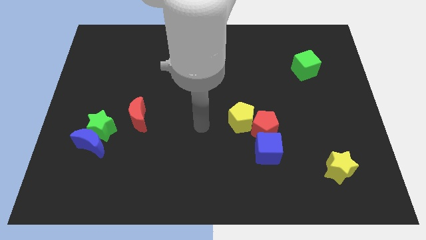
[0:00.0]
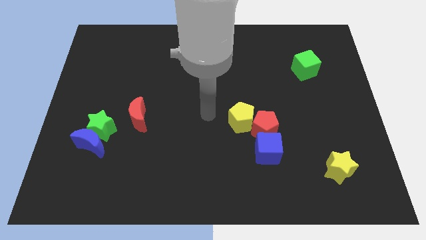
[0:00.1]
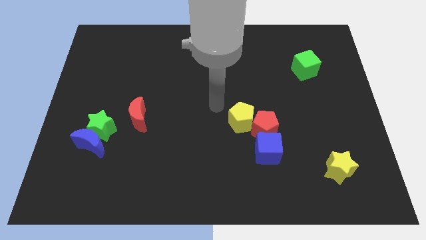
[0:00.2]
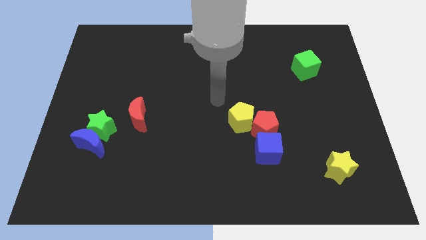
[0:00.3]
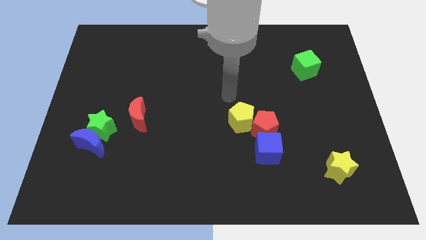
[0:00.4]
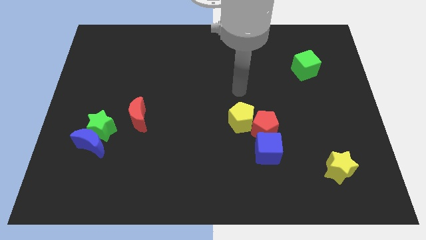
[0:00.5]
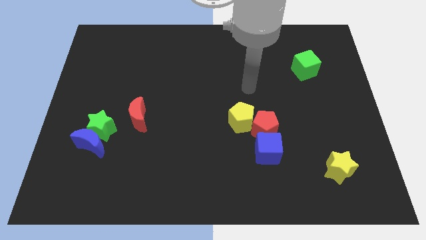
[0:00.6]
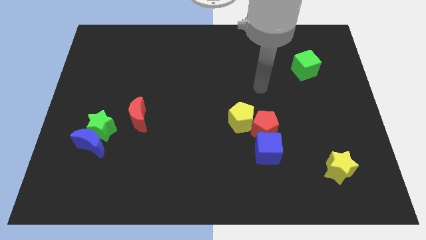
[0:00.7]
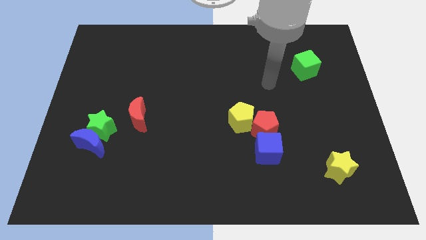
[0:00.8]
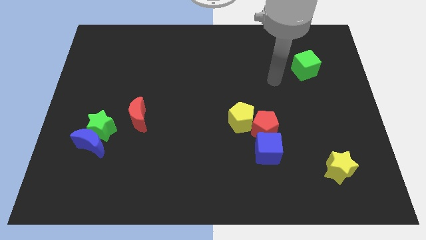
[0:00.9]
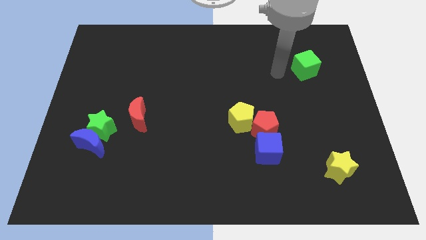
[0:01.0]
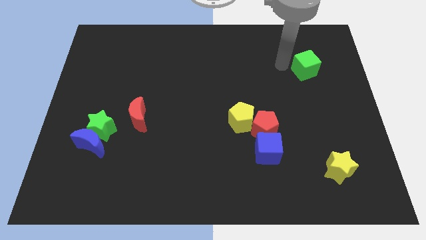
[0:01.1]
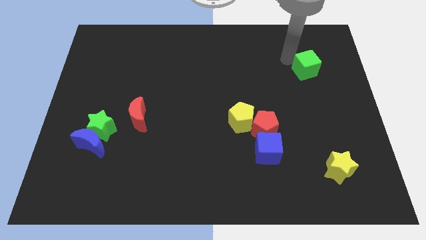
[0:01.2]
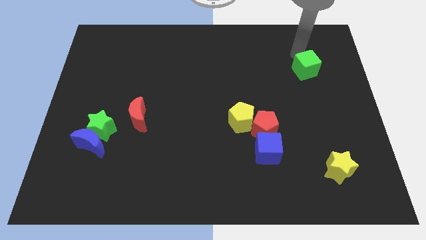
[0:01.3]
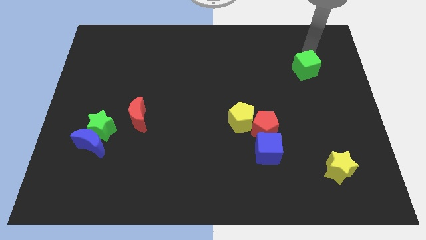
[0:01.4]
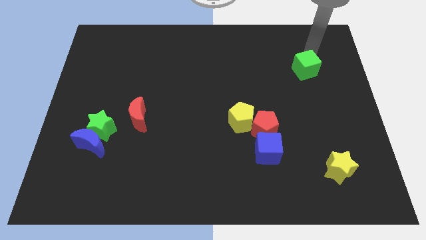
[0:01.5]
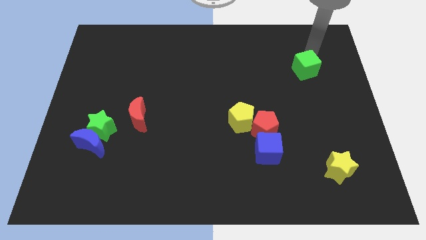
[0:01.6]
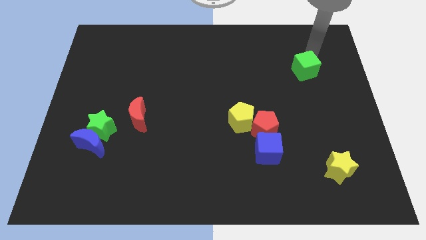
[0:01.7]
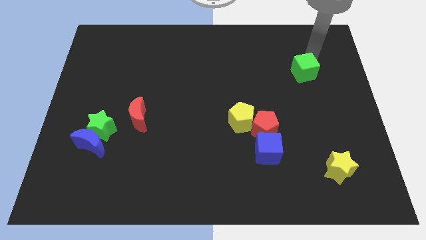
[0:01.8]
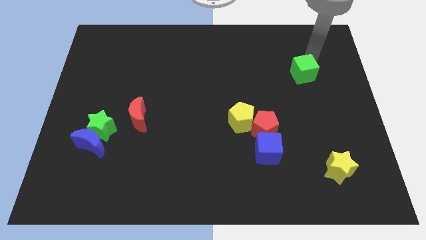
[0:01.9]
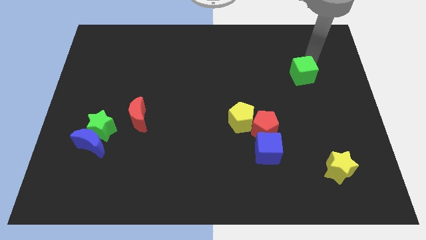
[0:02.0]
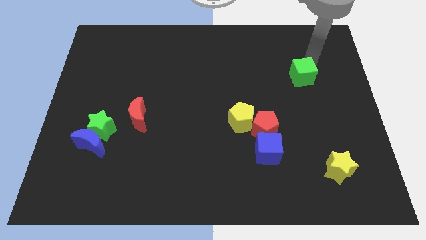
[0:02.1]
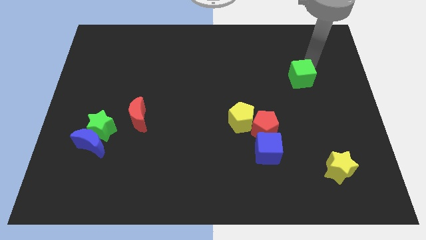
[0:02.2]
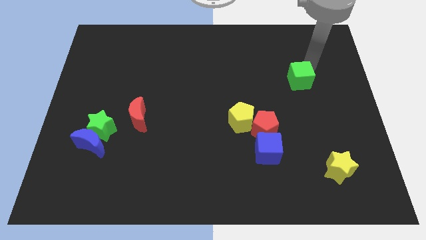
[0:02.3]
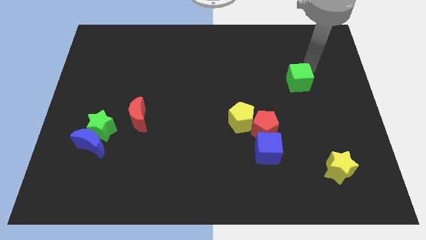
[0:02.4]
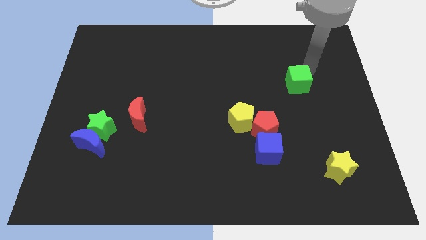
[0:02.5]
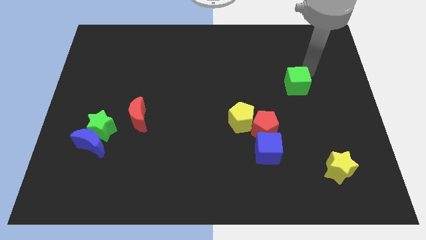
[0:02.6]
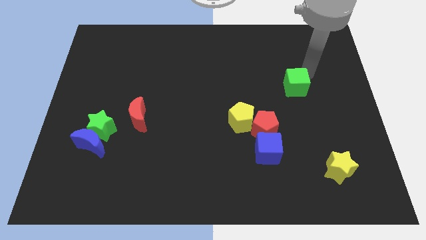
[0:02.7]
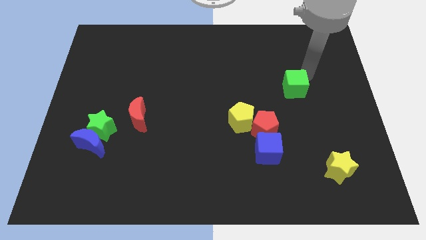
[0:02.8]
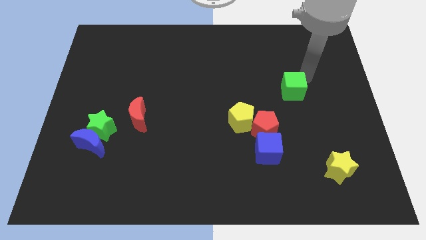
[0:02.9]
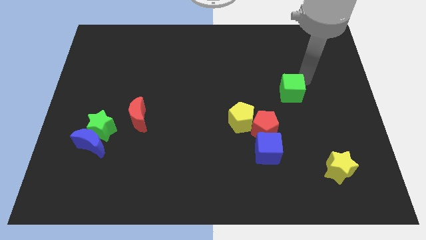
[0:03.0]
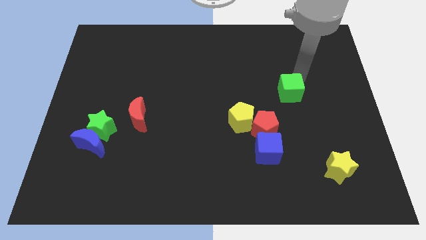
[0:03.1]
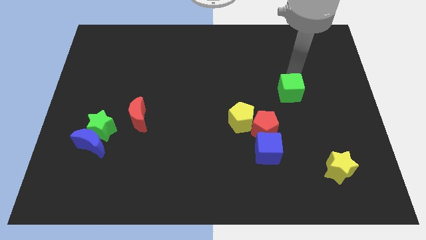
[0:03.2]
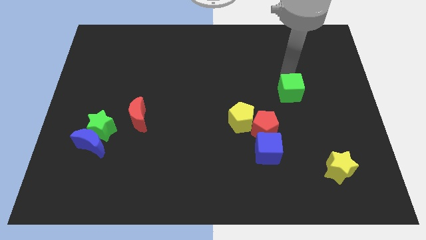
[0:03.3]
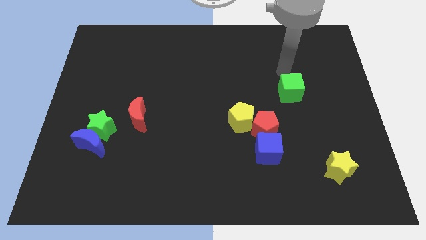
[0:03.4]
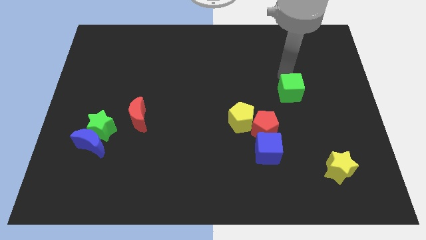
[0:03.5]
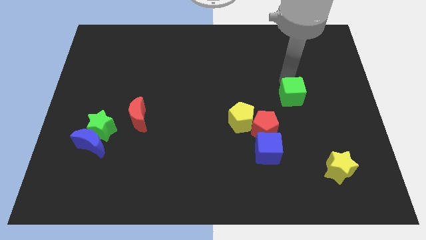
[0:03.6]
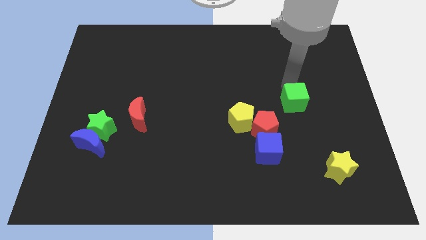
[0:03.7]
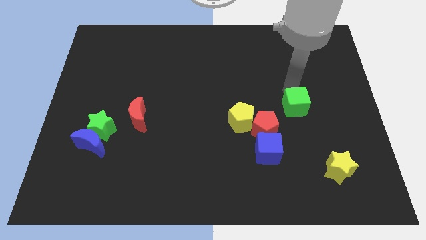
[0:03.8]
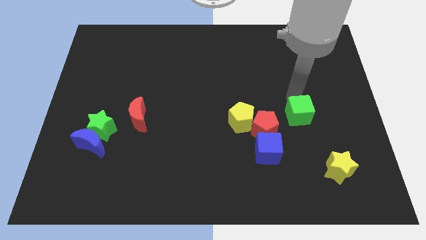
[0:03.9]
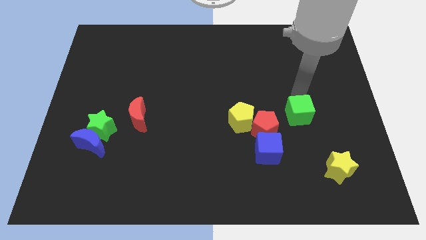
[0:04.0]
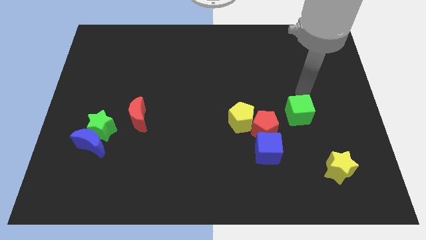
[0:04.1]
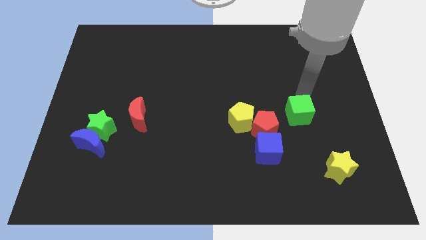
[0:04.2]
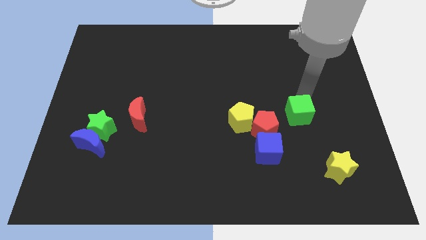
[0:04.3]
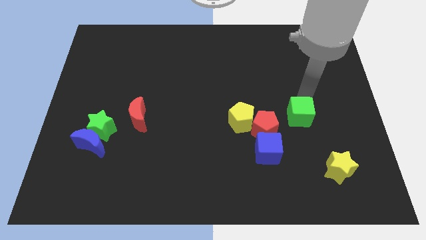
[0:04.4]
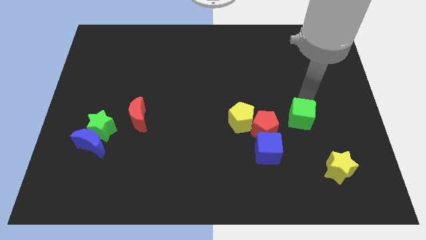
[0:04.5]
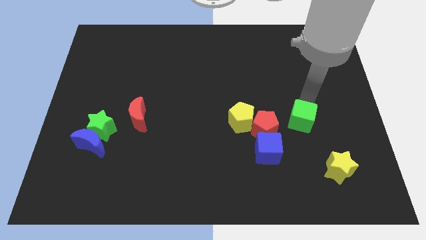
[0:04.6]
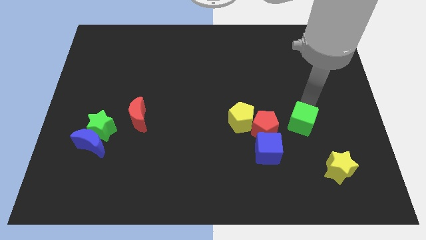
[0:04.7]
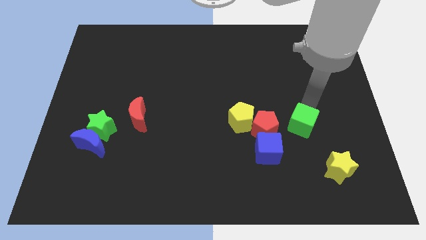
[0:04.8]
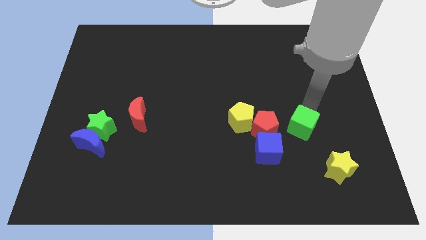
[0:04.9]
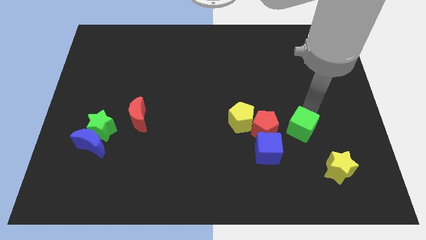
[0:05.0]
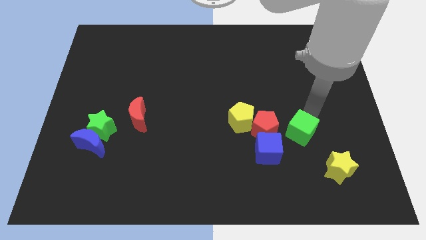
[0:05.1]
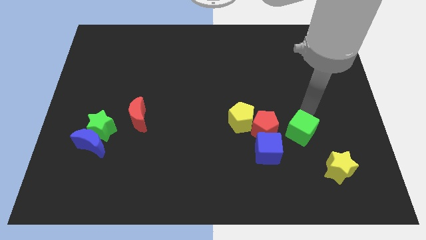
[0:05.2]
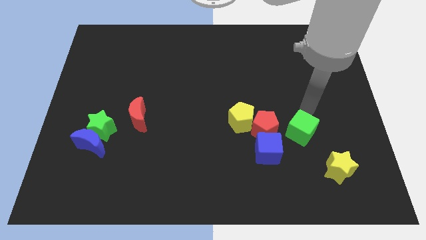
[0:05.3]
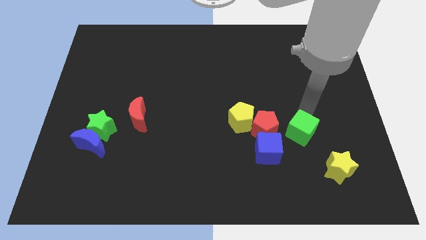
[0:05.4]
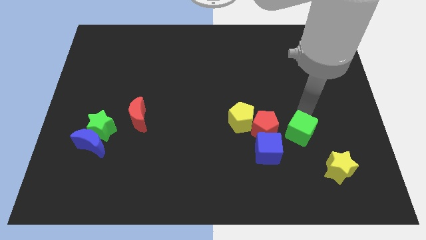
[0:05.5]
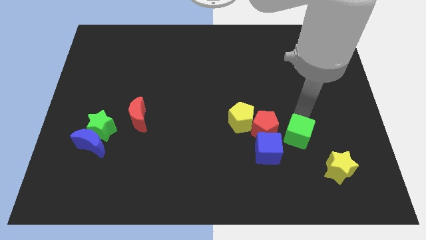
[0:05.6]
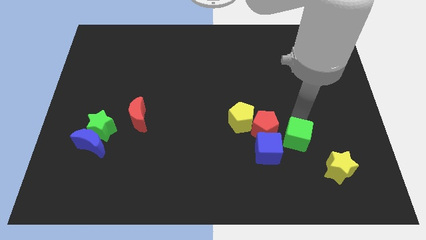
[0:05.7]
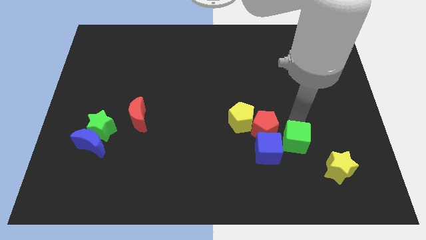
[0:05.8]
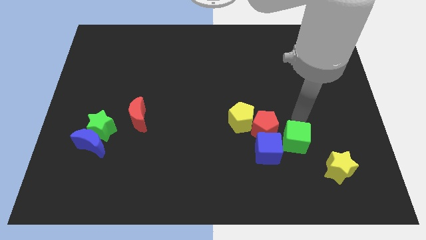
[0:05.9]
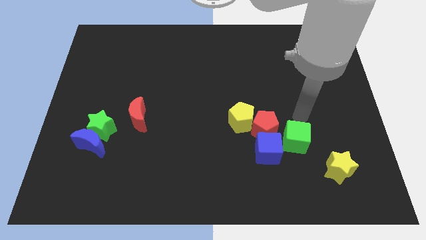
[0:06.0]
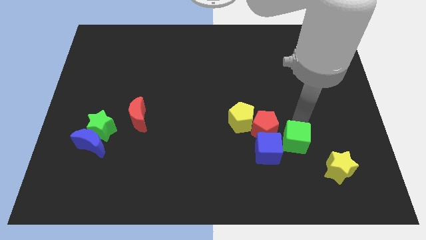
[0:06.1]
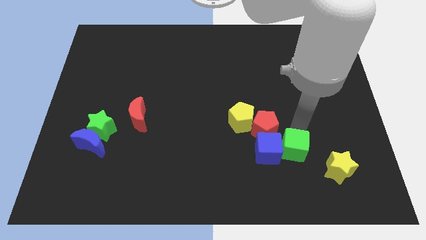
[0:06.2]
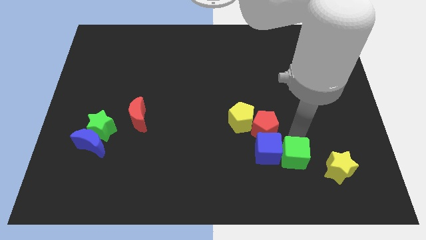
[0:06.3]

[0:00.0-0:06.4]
slide the green cube to the left of the yellow star
